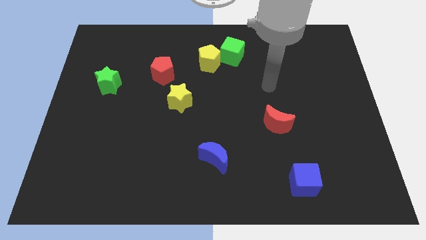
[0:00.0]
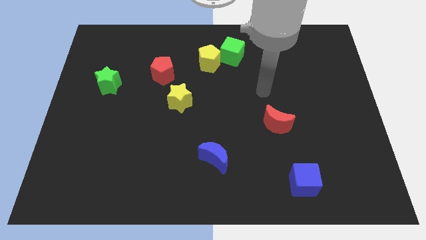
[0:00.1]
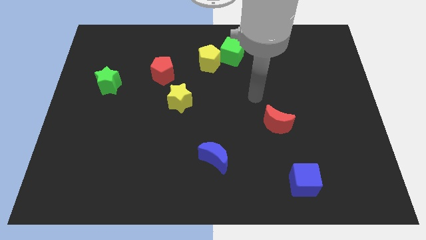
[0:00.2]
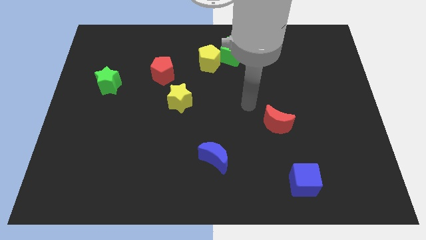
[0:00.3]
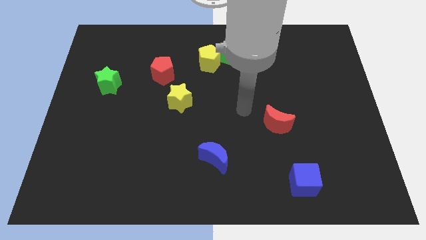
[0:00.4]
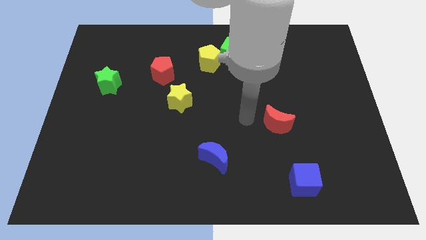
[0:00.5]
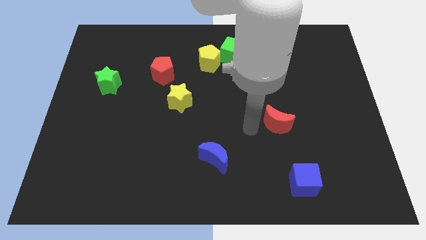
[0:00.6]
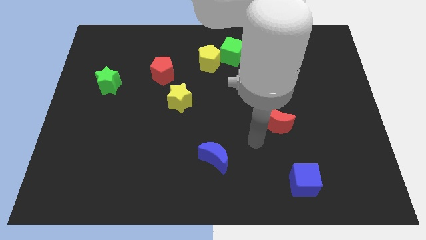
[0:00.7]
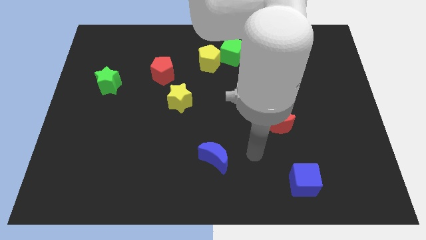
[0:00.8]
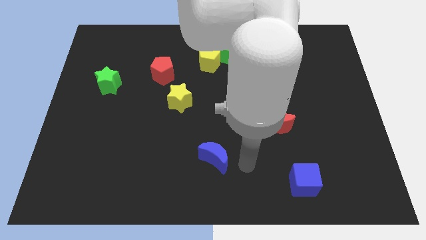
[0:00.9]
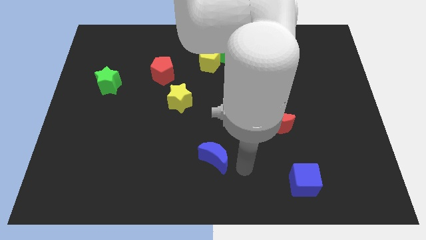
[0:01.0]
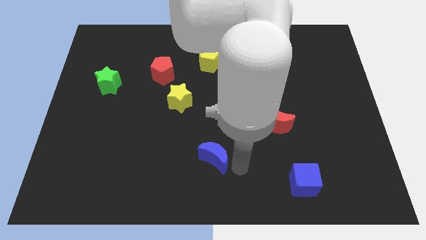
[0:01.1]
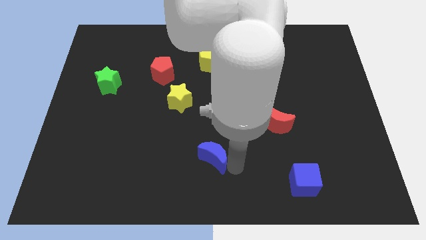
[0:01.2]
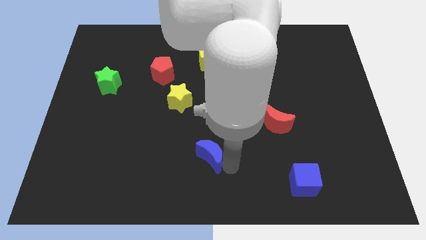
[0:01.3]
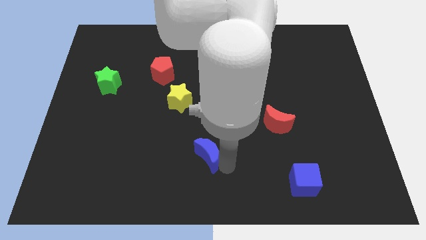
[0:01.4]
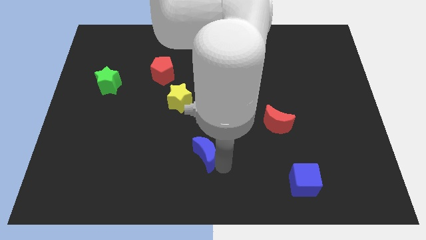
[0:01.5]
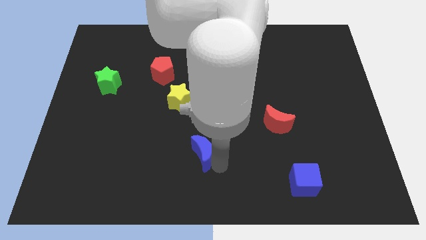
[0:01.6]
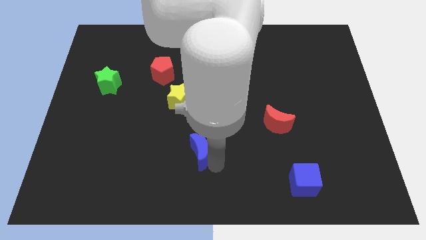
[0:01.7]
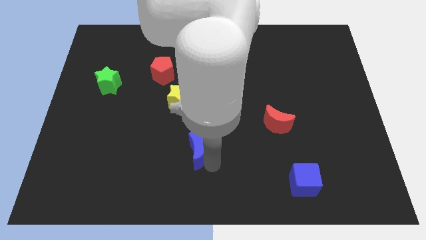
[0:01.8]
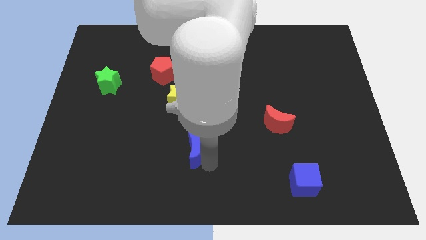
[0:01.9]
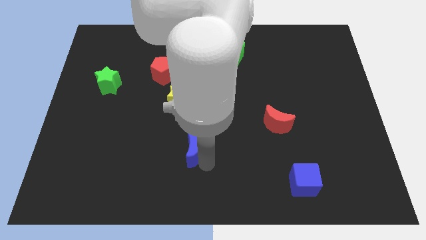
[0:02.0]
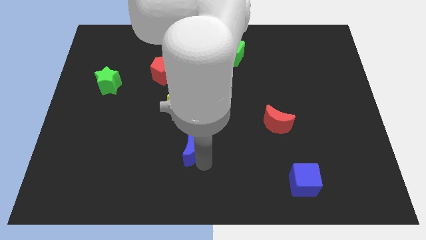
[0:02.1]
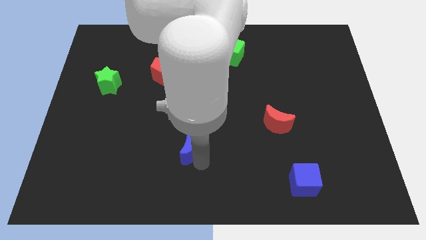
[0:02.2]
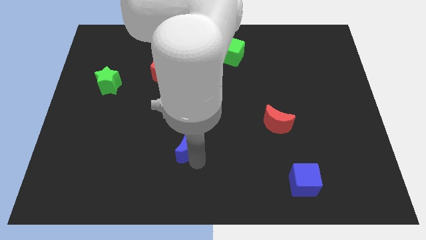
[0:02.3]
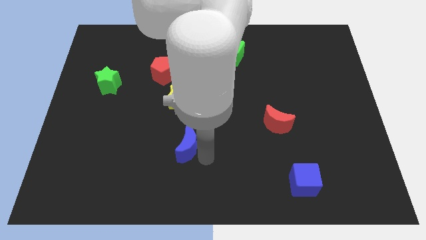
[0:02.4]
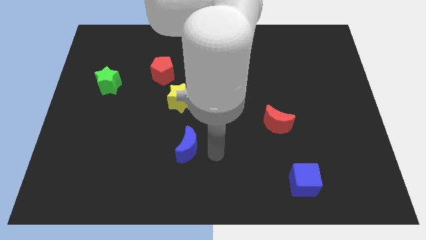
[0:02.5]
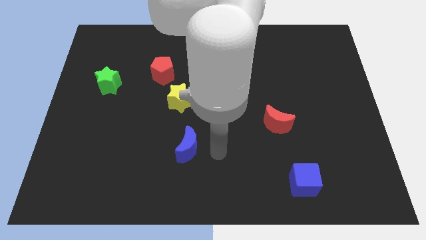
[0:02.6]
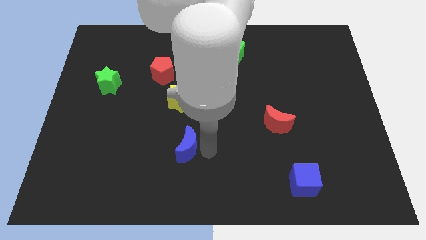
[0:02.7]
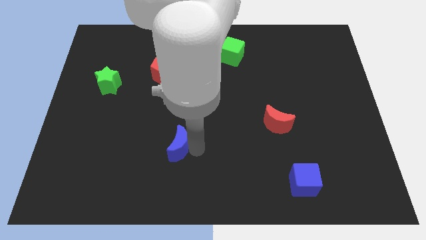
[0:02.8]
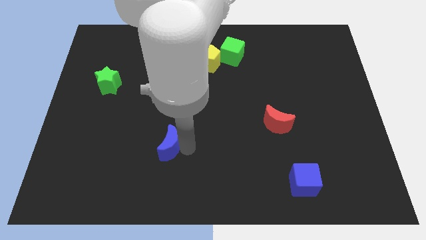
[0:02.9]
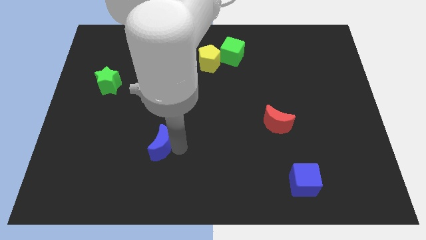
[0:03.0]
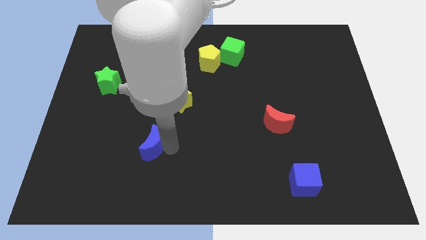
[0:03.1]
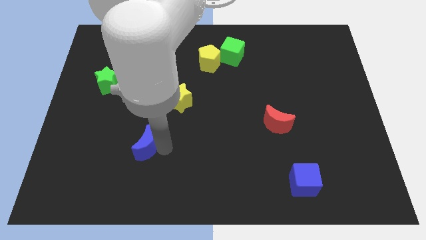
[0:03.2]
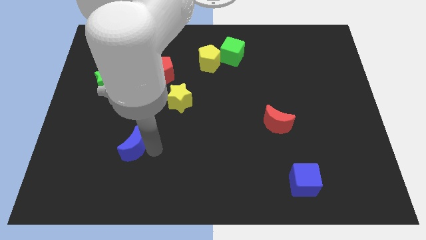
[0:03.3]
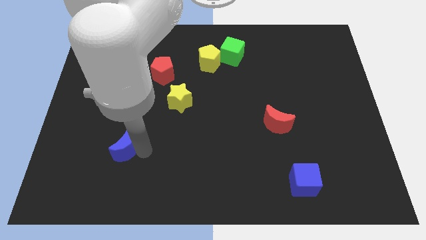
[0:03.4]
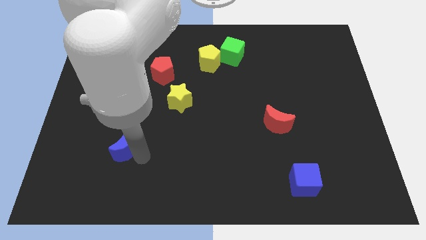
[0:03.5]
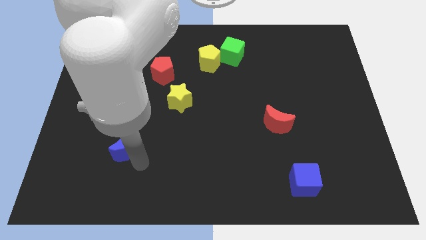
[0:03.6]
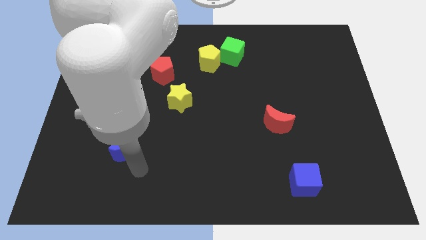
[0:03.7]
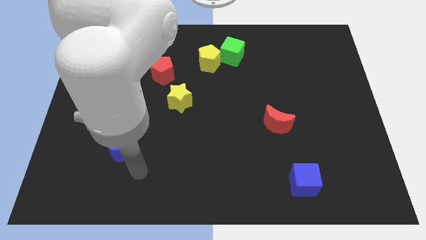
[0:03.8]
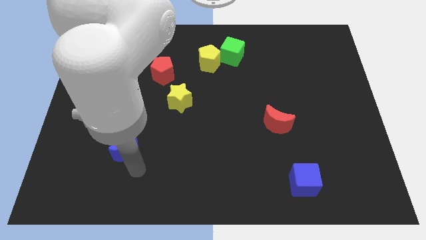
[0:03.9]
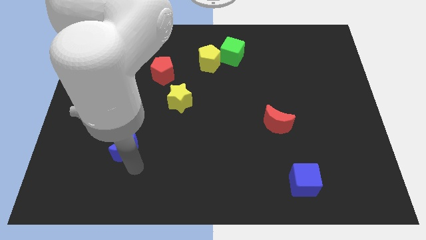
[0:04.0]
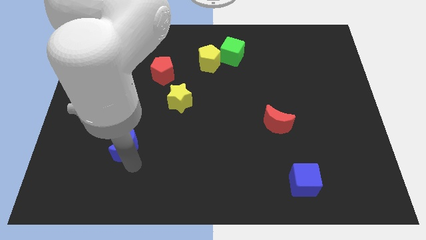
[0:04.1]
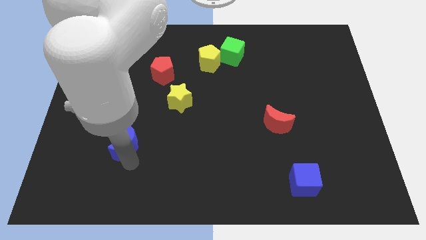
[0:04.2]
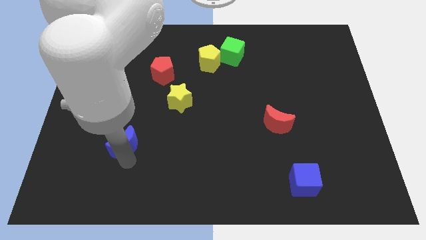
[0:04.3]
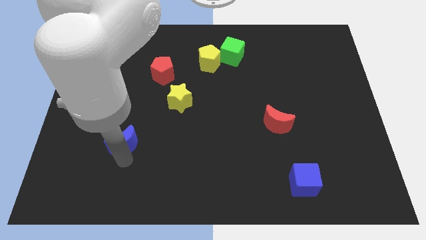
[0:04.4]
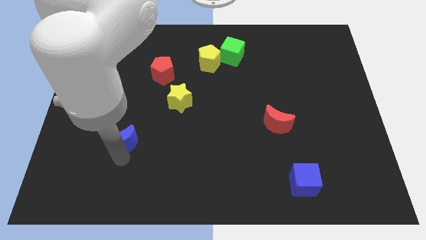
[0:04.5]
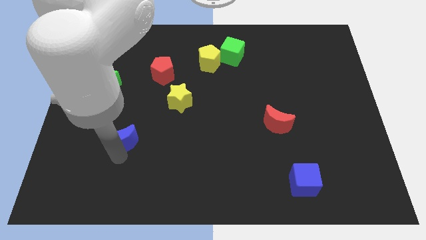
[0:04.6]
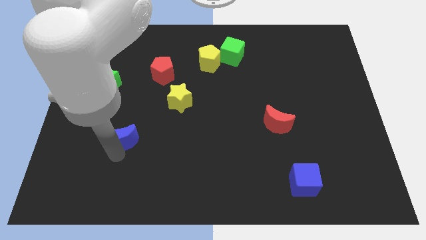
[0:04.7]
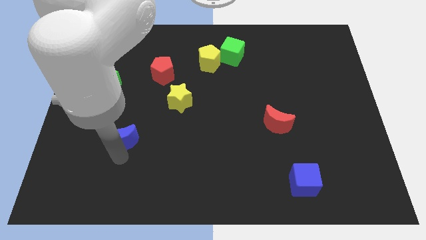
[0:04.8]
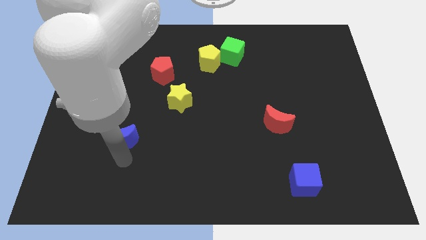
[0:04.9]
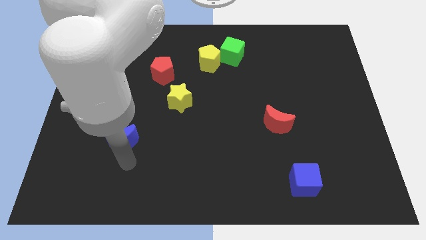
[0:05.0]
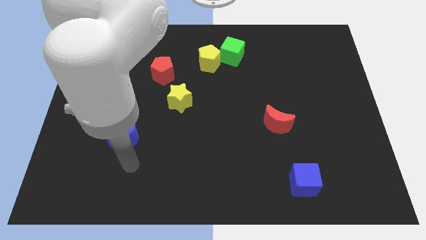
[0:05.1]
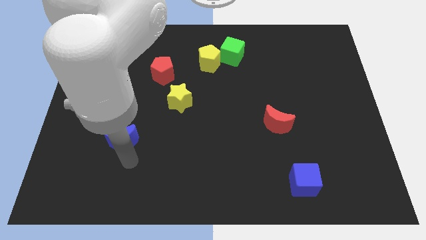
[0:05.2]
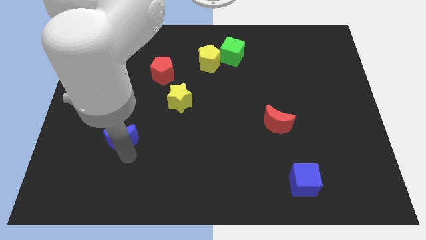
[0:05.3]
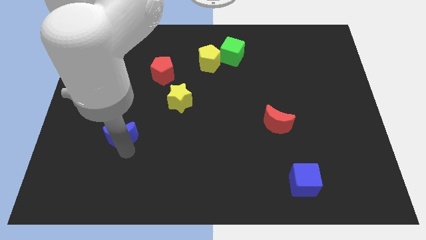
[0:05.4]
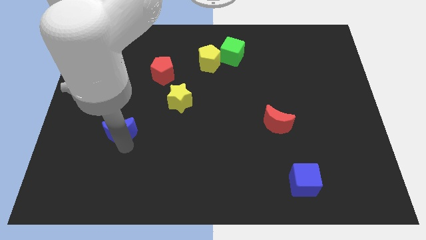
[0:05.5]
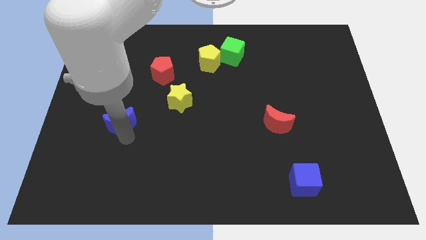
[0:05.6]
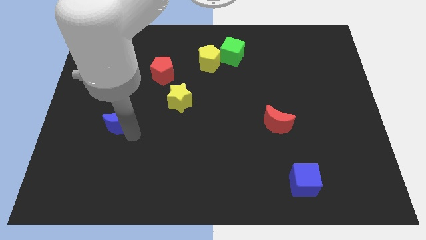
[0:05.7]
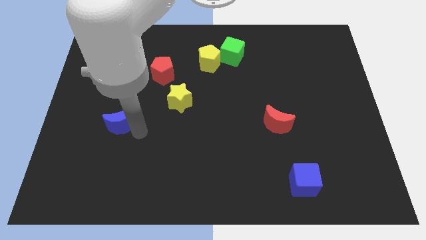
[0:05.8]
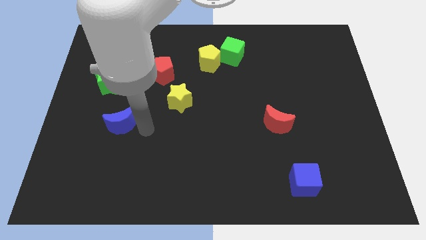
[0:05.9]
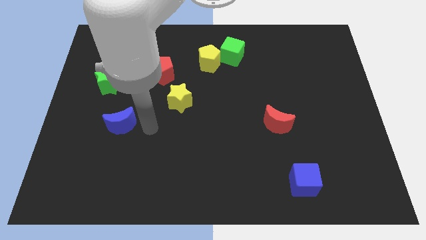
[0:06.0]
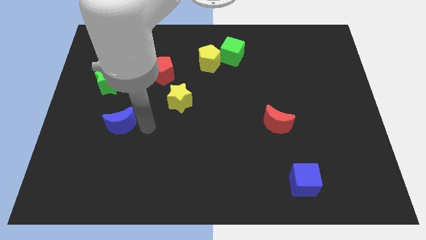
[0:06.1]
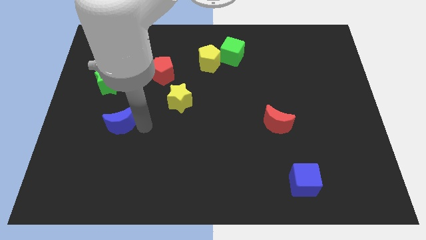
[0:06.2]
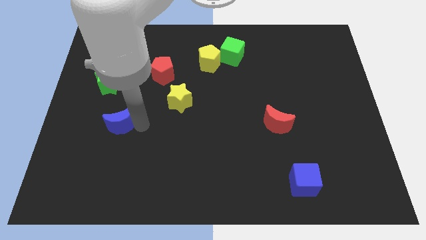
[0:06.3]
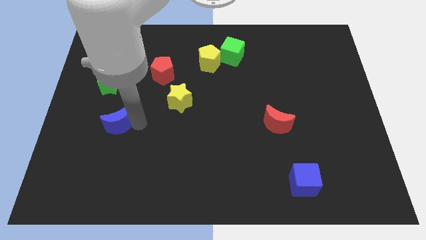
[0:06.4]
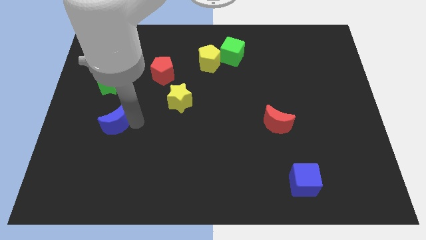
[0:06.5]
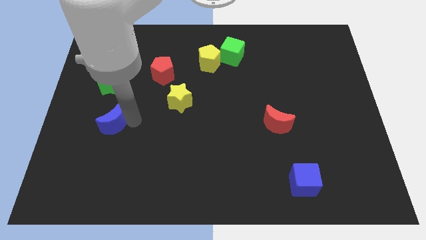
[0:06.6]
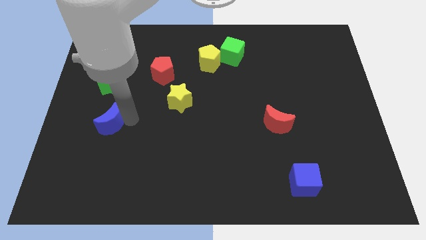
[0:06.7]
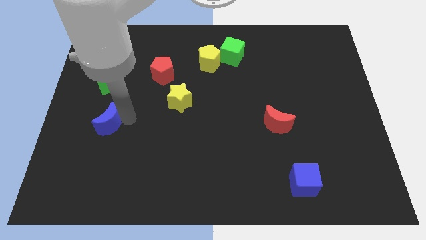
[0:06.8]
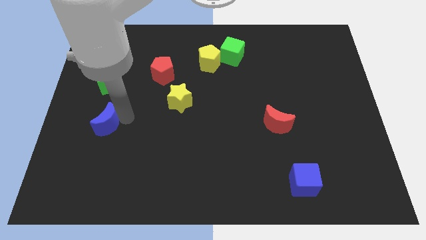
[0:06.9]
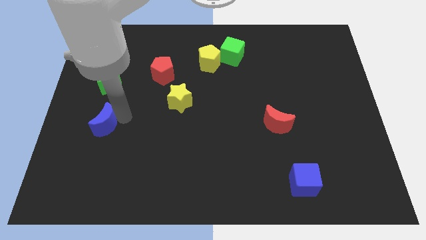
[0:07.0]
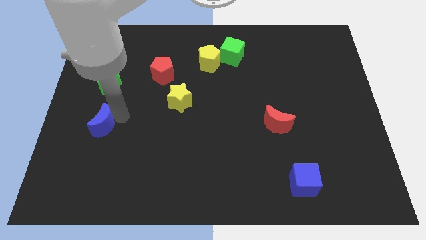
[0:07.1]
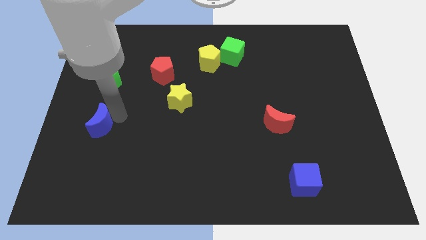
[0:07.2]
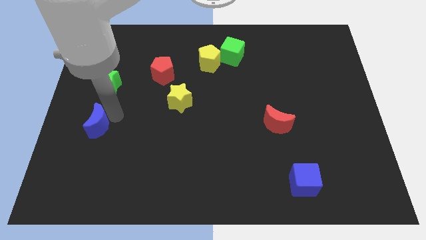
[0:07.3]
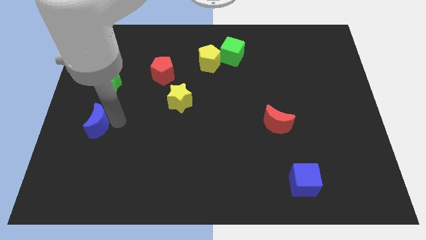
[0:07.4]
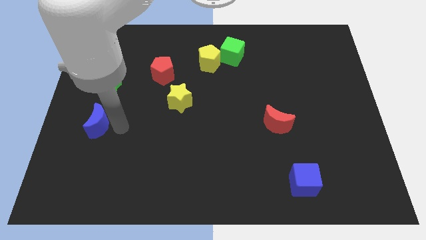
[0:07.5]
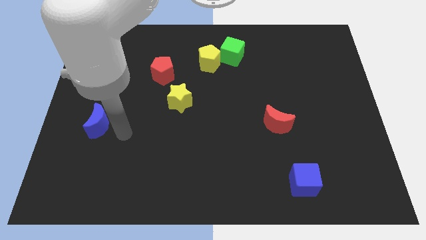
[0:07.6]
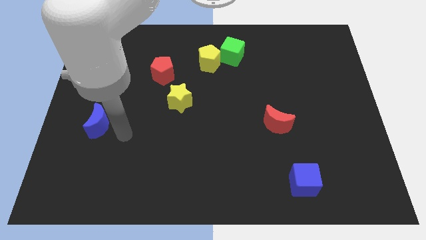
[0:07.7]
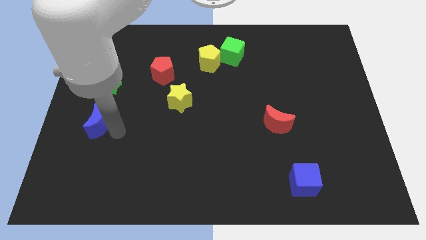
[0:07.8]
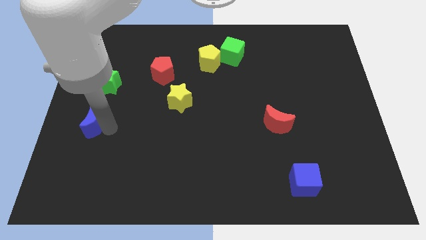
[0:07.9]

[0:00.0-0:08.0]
move the blue moon to the center left
